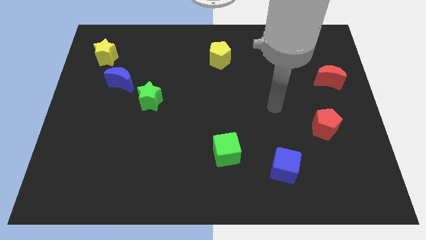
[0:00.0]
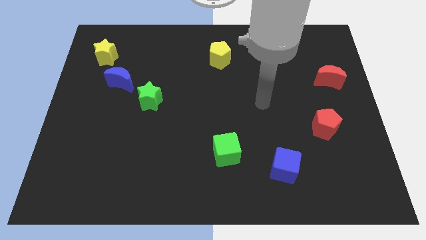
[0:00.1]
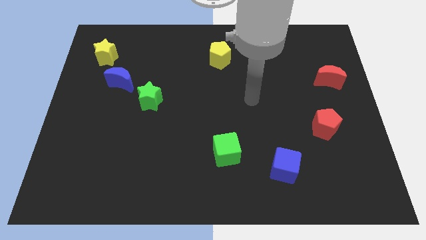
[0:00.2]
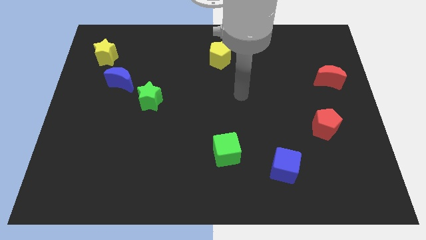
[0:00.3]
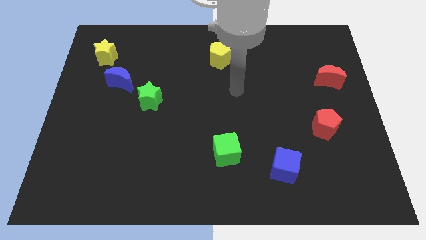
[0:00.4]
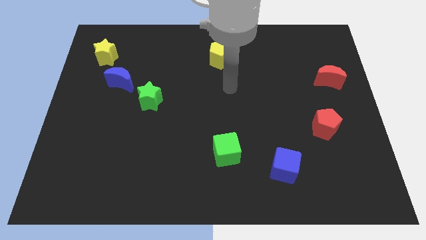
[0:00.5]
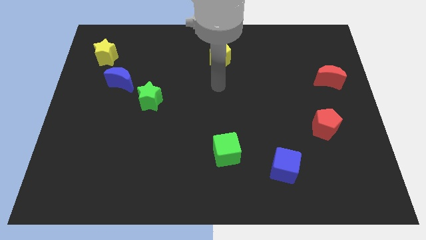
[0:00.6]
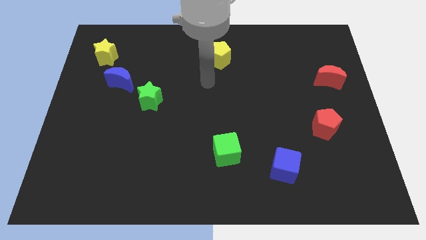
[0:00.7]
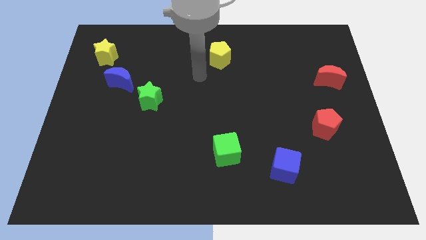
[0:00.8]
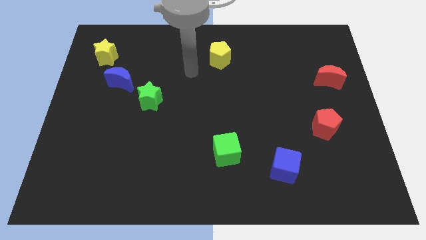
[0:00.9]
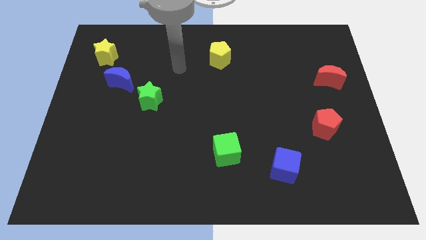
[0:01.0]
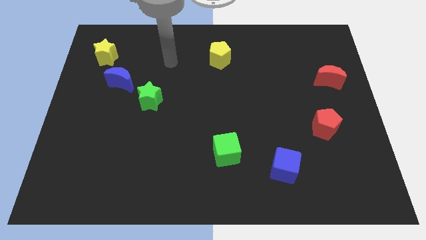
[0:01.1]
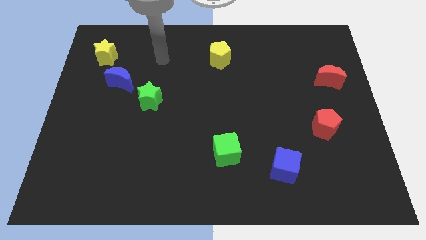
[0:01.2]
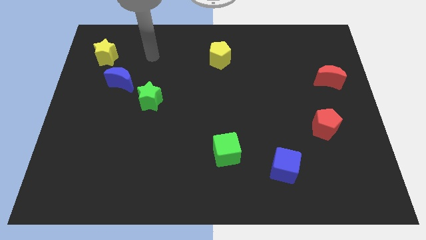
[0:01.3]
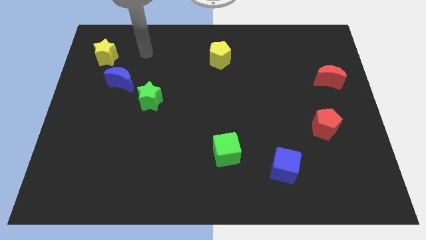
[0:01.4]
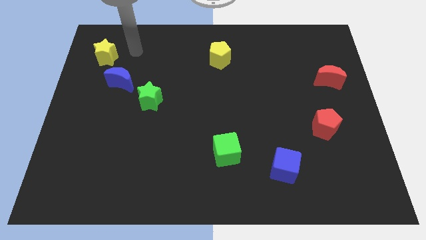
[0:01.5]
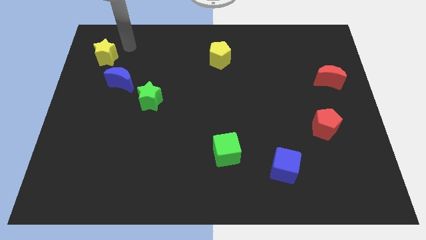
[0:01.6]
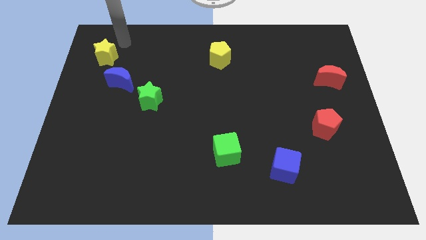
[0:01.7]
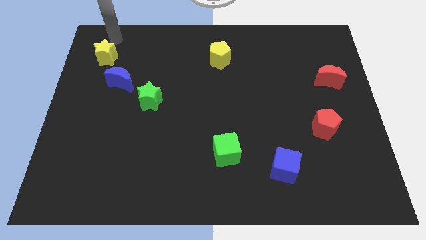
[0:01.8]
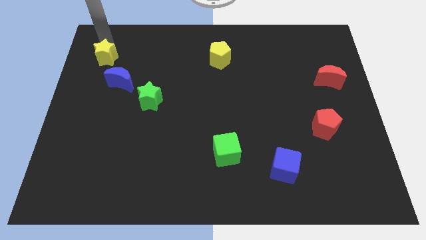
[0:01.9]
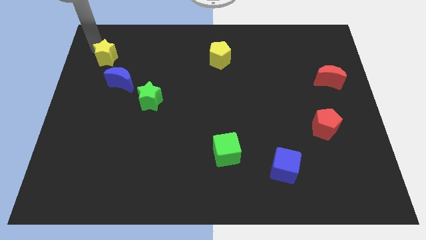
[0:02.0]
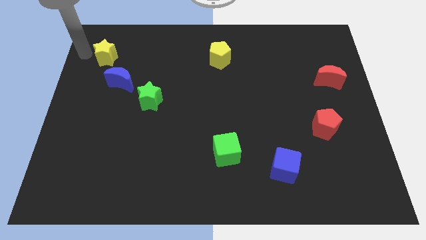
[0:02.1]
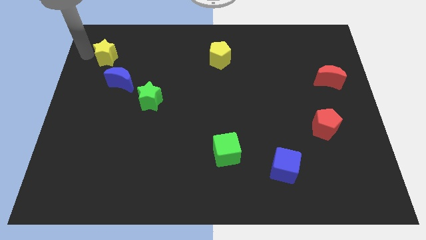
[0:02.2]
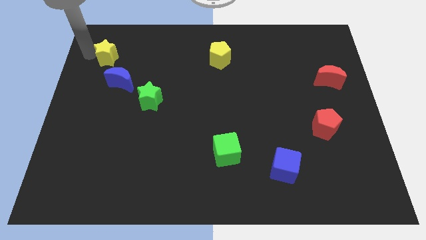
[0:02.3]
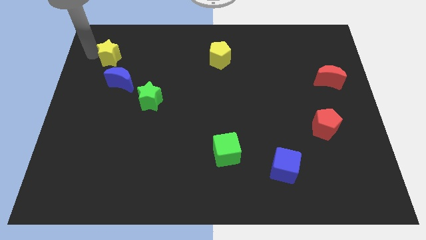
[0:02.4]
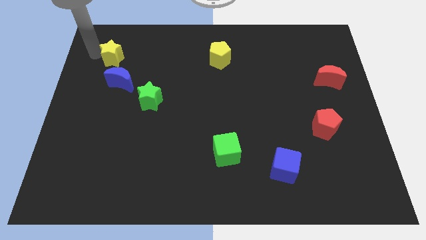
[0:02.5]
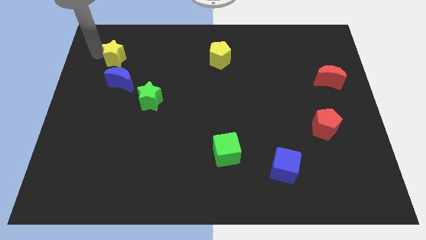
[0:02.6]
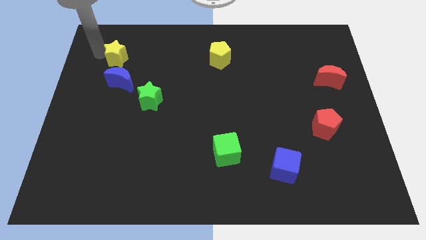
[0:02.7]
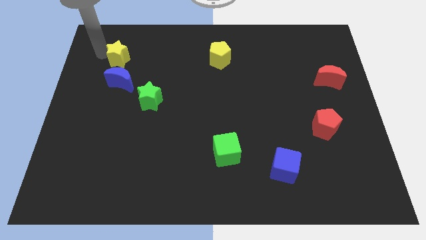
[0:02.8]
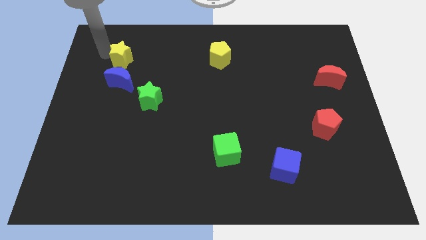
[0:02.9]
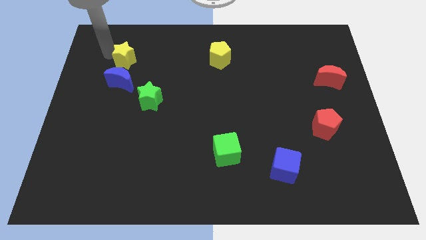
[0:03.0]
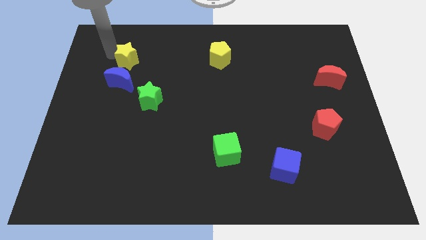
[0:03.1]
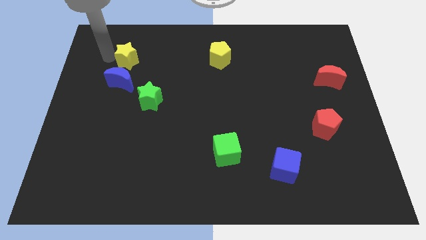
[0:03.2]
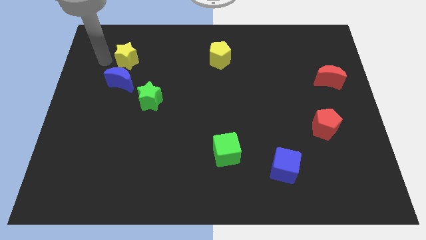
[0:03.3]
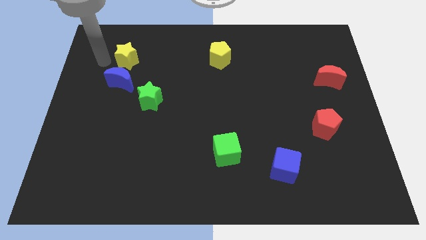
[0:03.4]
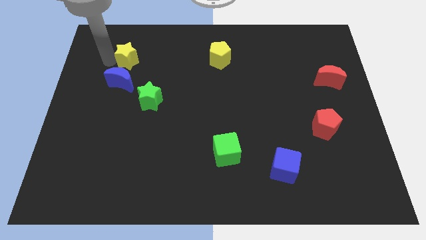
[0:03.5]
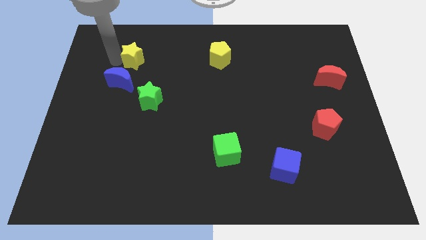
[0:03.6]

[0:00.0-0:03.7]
move the yellow star a bit right

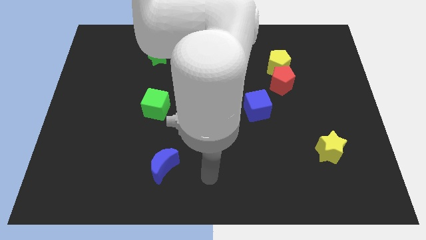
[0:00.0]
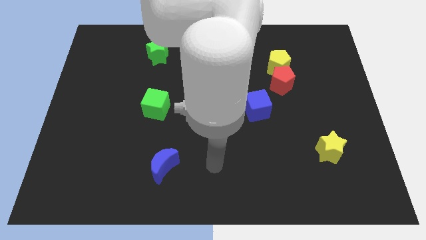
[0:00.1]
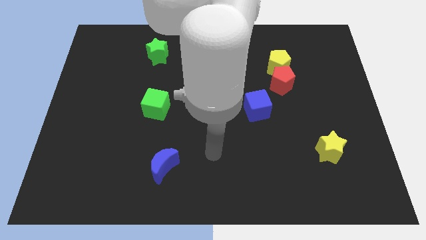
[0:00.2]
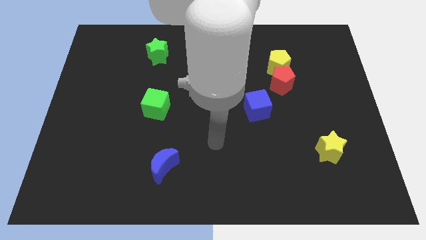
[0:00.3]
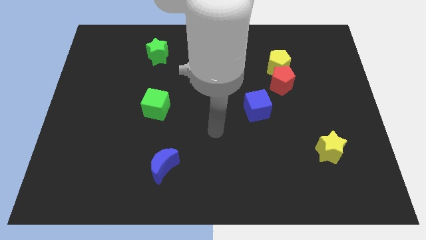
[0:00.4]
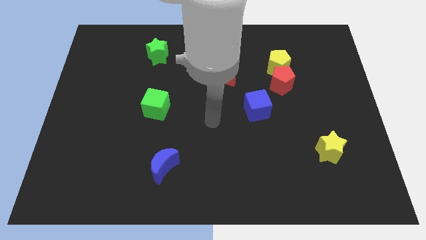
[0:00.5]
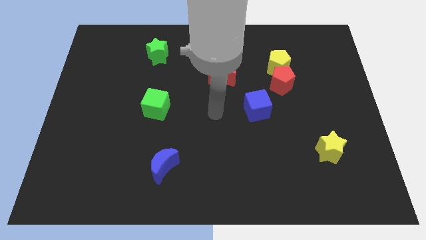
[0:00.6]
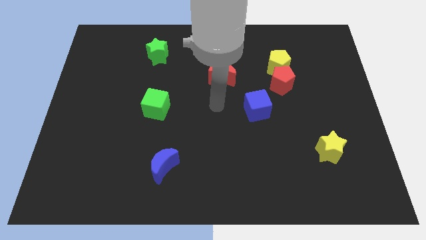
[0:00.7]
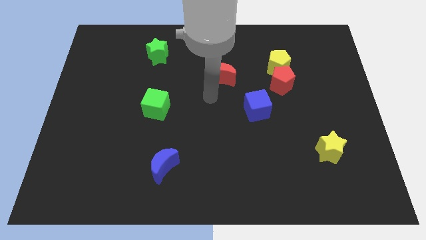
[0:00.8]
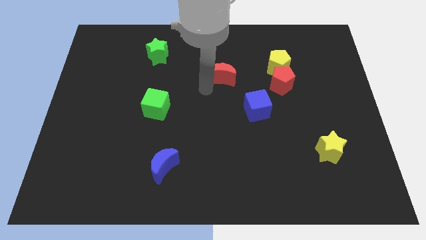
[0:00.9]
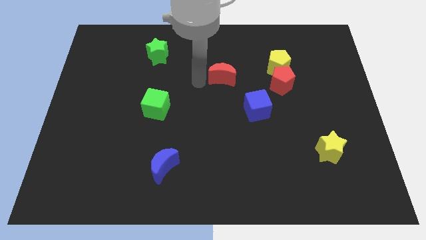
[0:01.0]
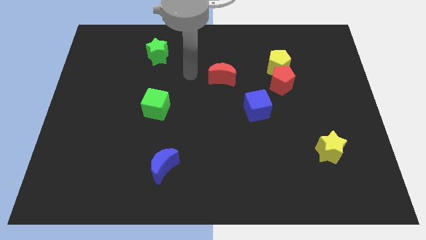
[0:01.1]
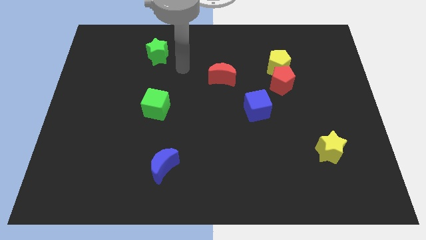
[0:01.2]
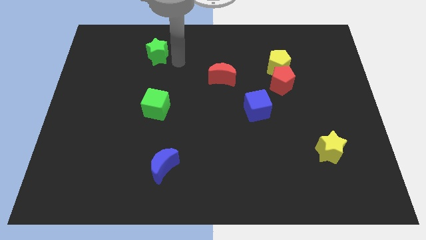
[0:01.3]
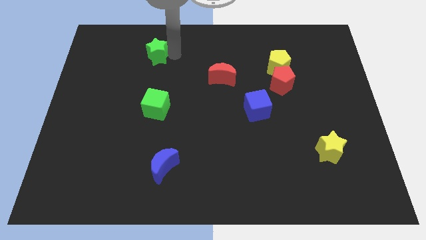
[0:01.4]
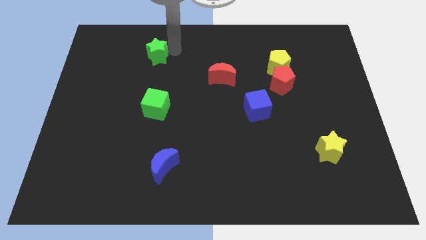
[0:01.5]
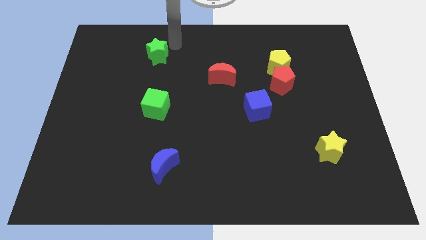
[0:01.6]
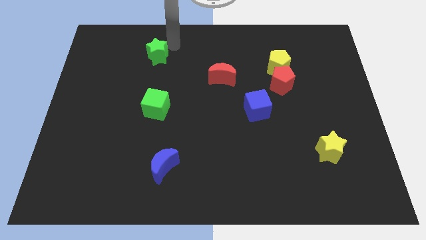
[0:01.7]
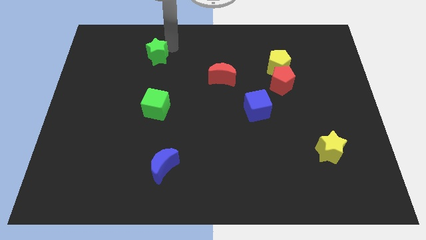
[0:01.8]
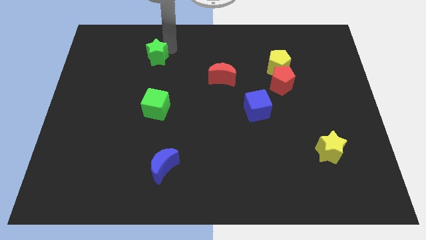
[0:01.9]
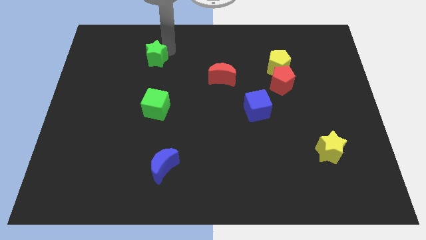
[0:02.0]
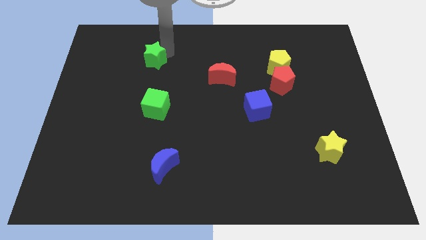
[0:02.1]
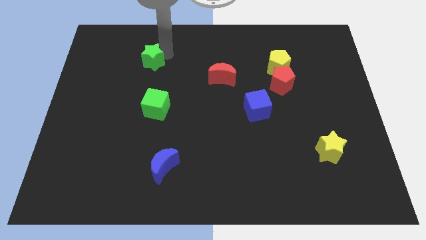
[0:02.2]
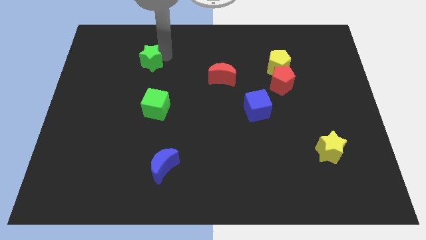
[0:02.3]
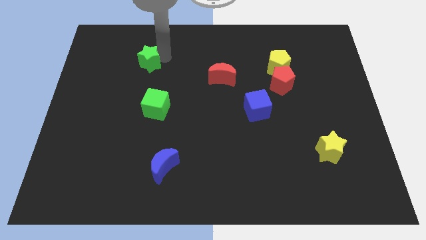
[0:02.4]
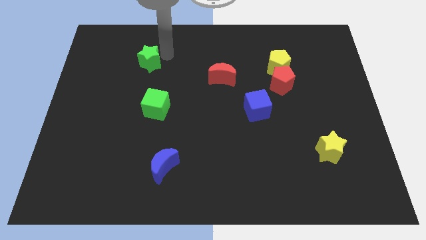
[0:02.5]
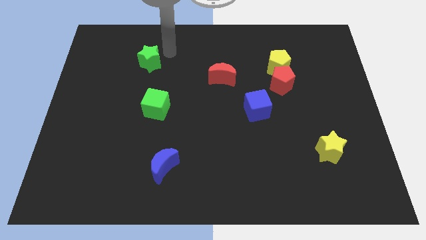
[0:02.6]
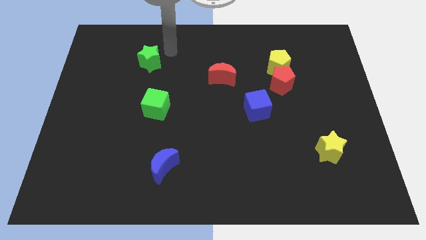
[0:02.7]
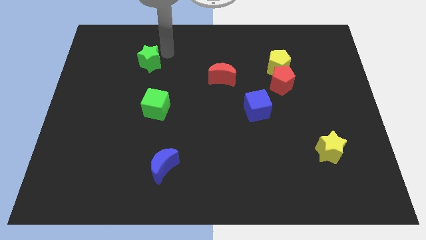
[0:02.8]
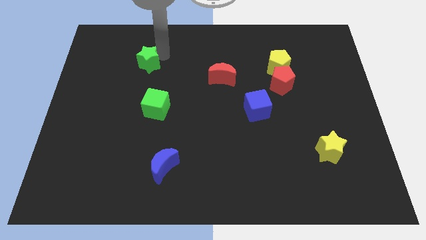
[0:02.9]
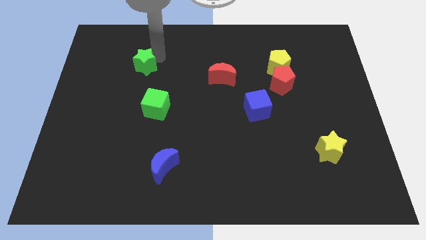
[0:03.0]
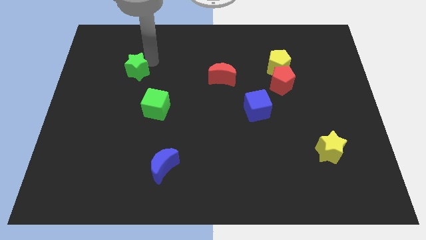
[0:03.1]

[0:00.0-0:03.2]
move the green star a little bit down and to the left diagonally

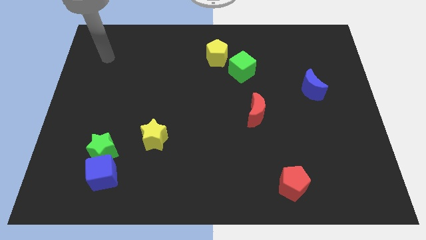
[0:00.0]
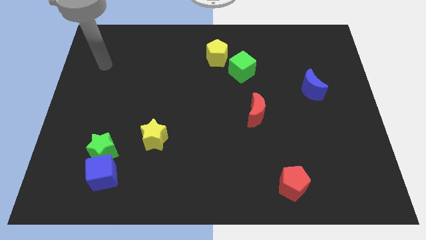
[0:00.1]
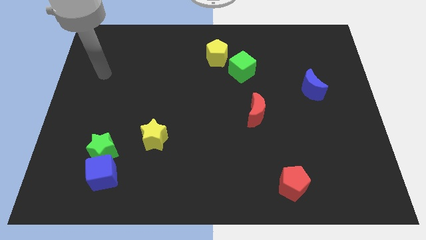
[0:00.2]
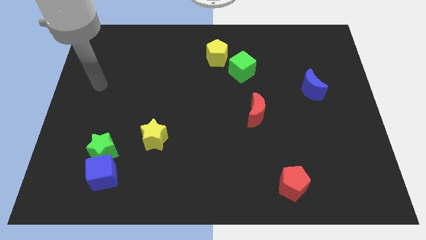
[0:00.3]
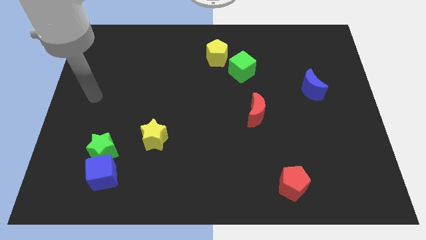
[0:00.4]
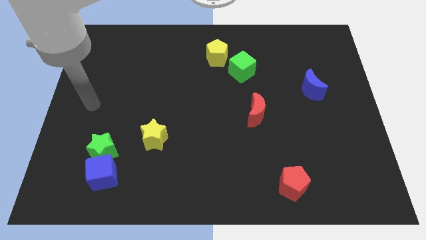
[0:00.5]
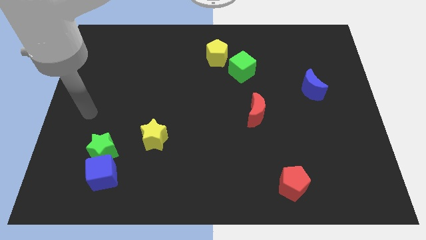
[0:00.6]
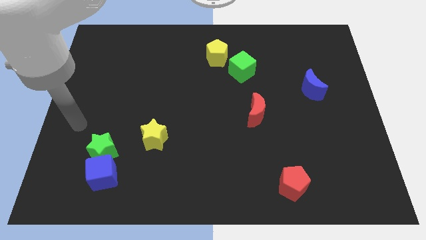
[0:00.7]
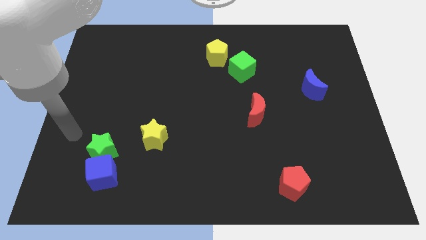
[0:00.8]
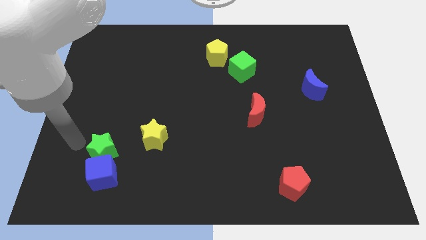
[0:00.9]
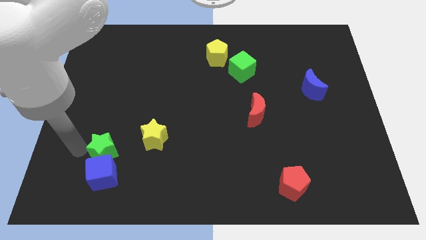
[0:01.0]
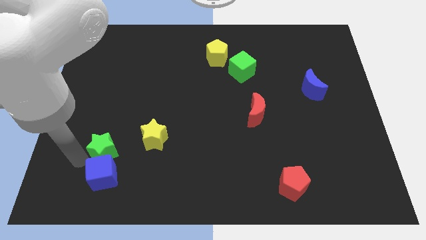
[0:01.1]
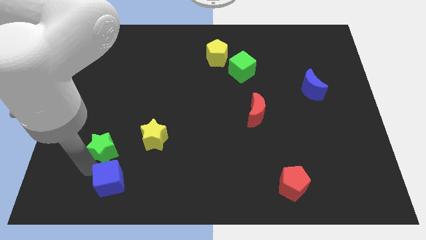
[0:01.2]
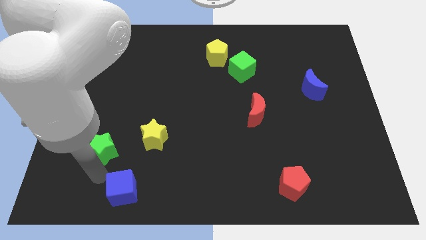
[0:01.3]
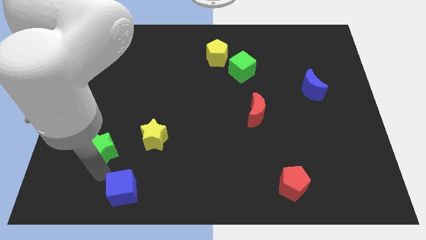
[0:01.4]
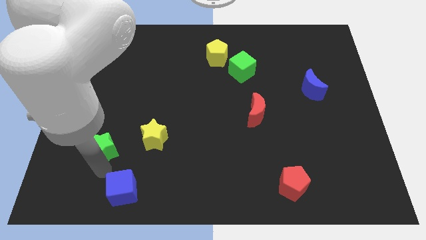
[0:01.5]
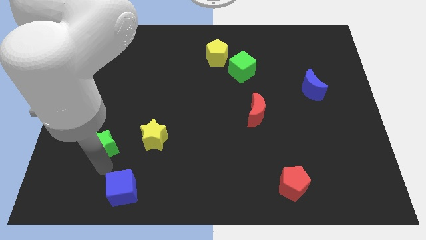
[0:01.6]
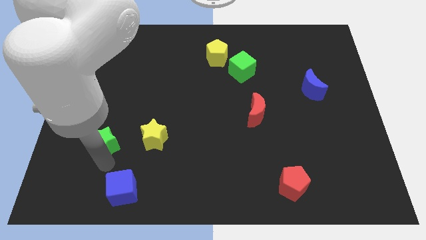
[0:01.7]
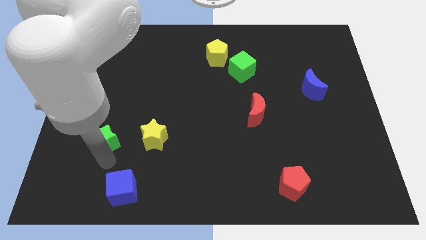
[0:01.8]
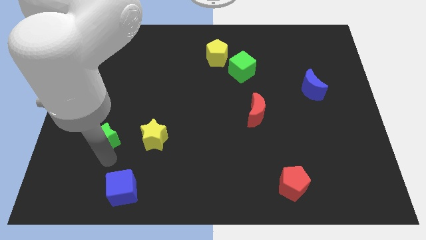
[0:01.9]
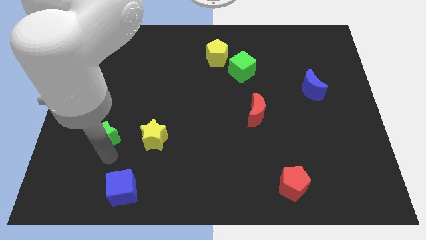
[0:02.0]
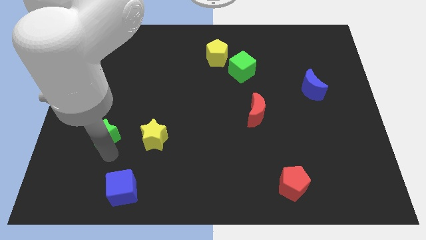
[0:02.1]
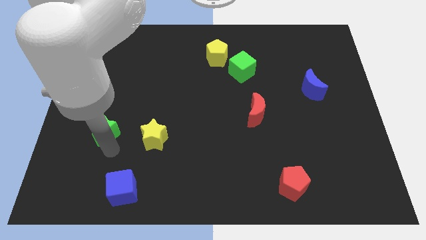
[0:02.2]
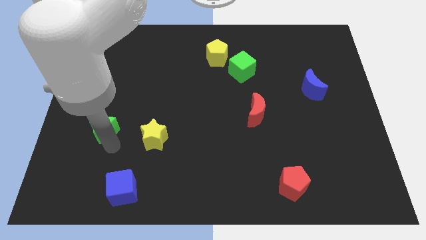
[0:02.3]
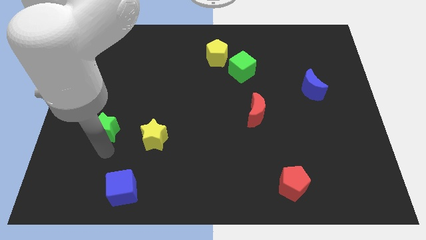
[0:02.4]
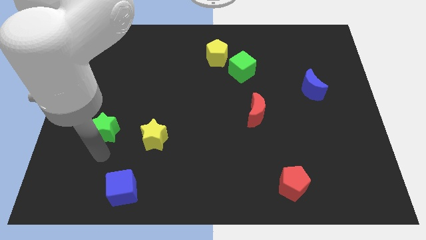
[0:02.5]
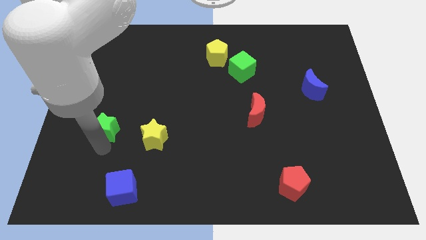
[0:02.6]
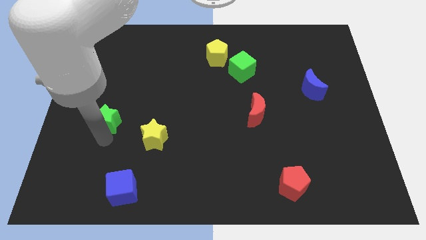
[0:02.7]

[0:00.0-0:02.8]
slightly push the green star upwards
